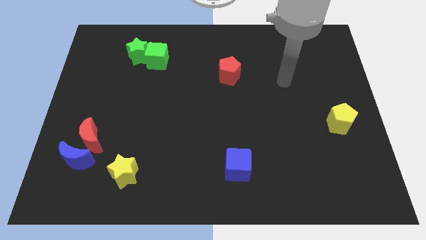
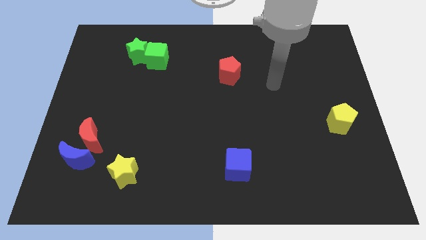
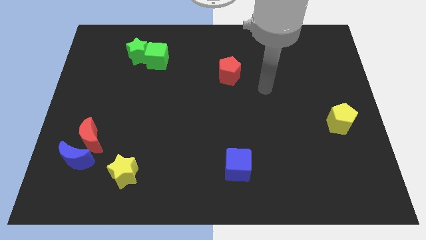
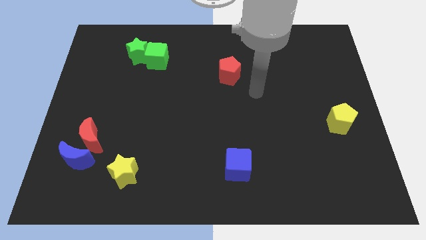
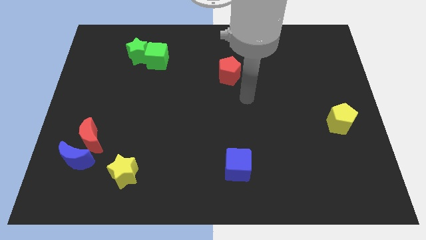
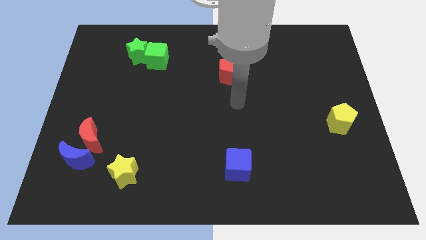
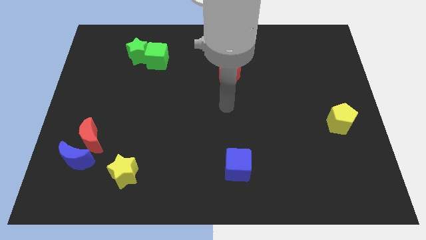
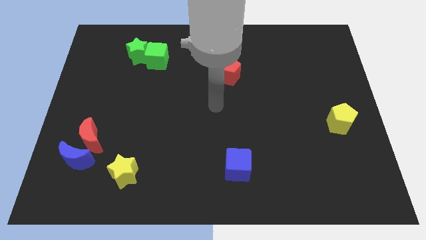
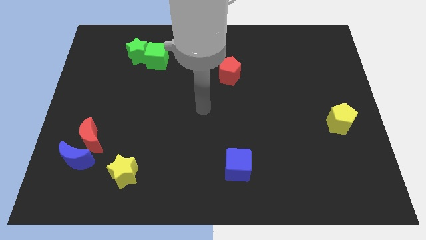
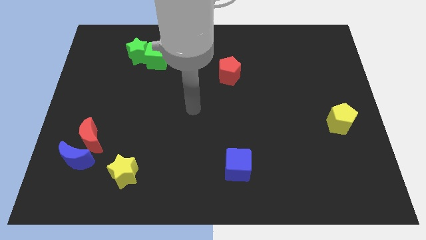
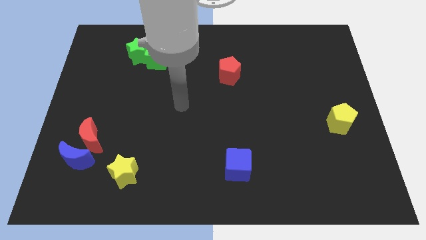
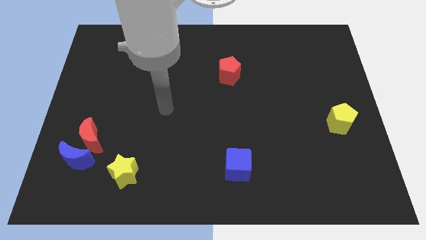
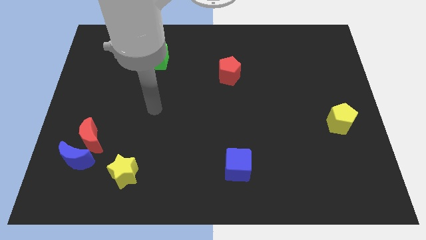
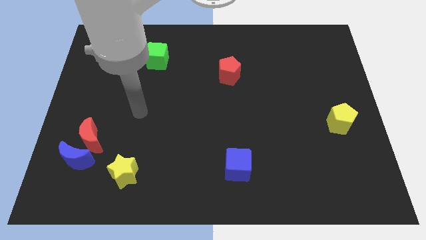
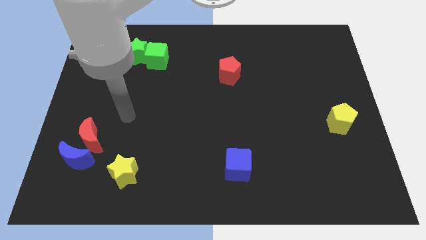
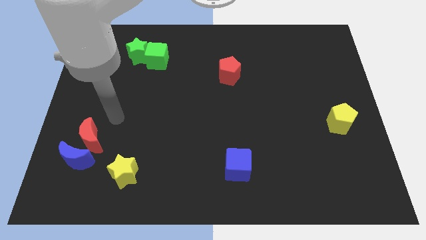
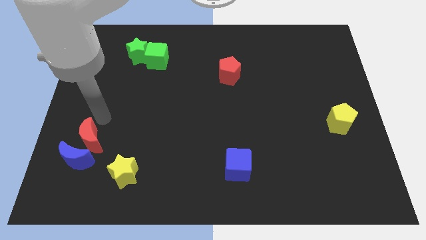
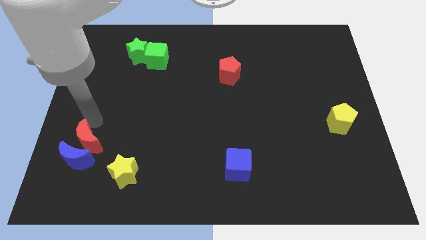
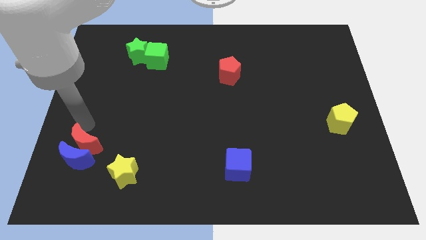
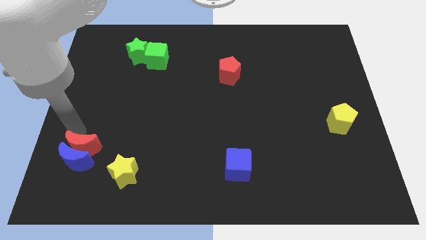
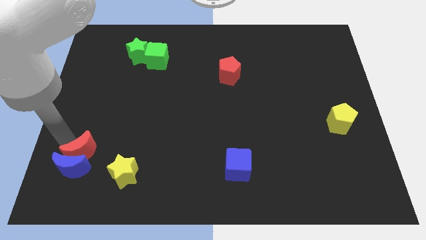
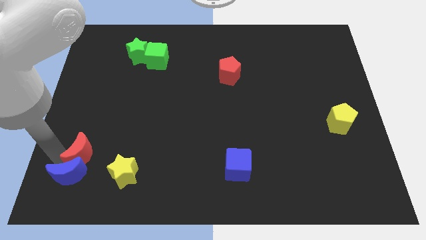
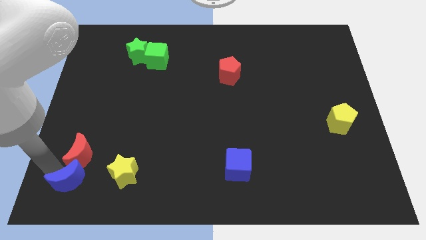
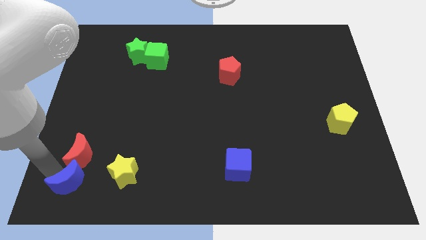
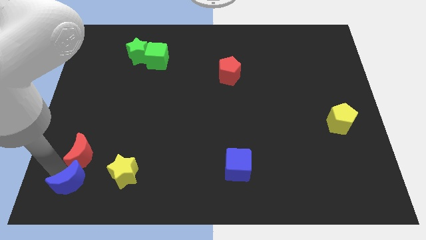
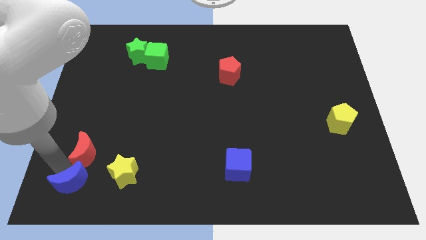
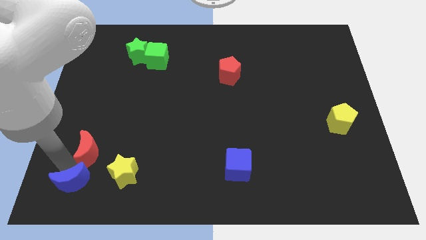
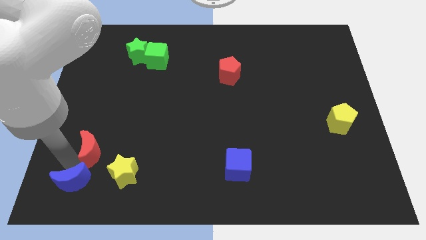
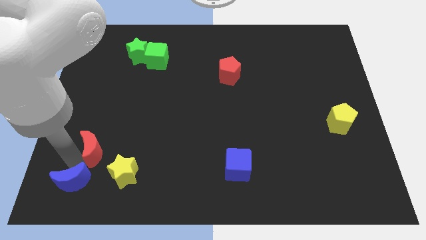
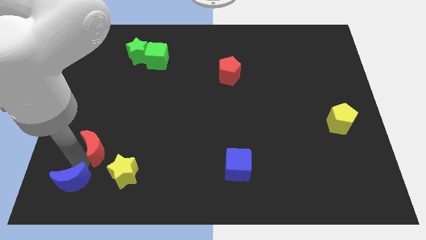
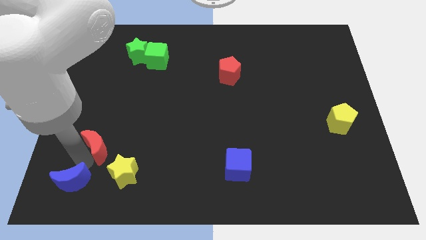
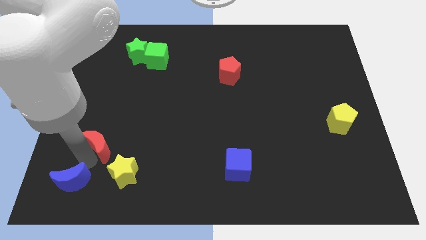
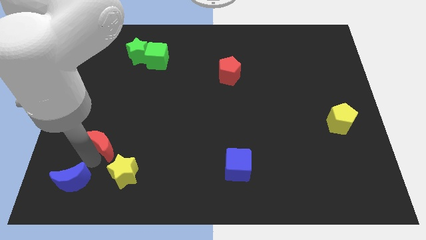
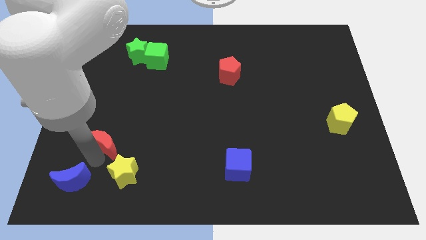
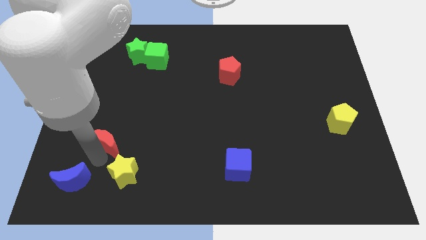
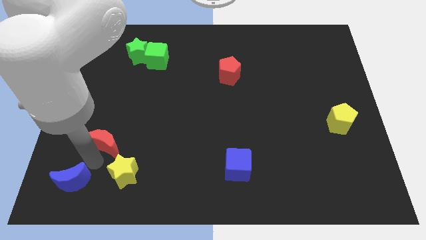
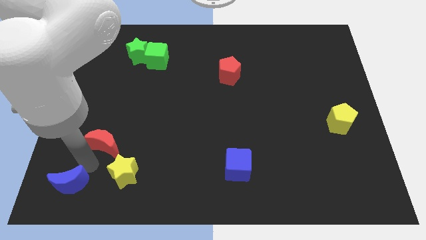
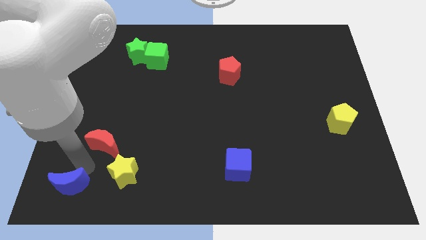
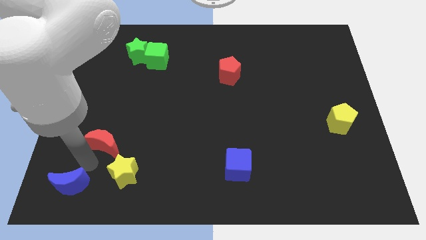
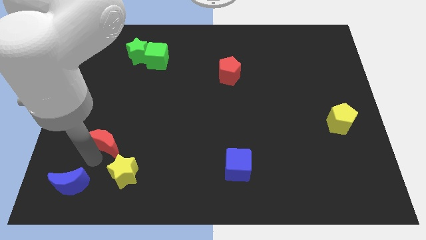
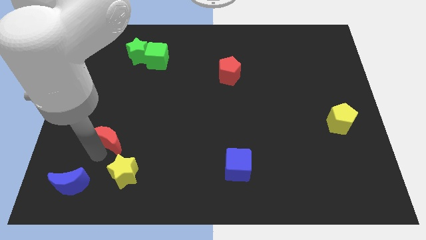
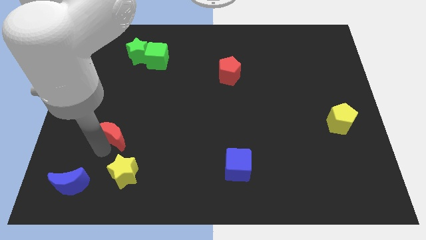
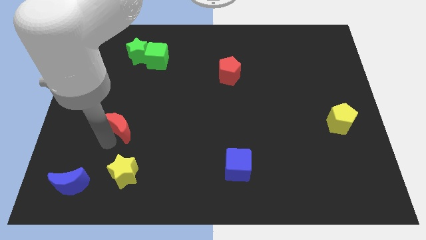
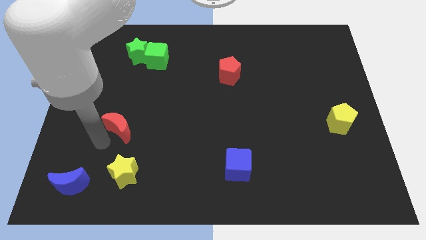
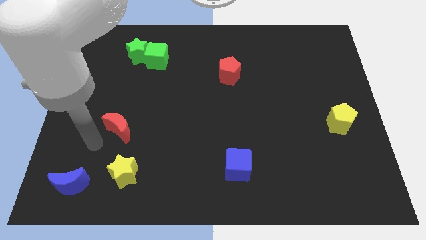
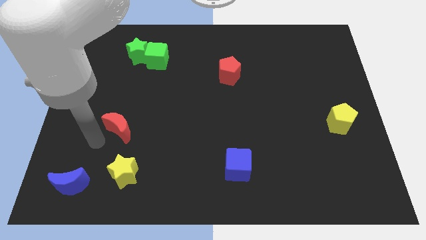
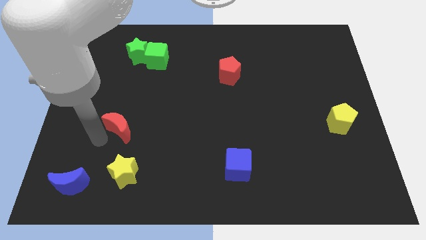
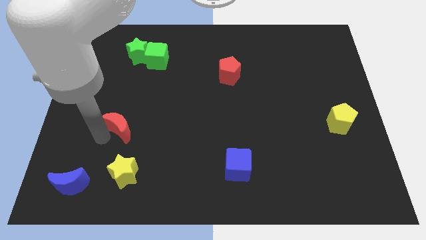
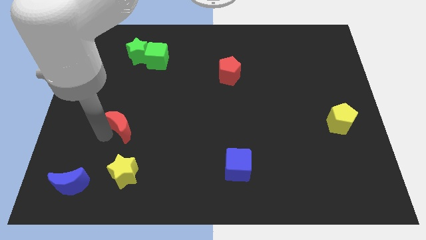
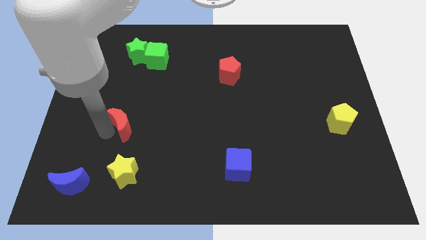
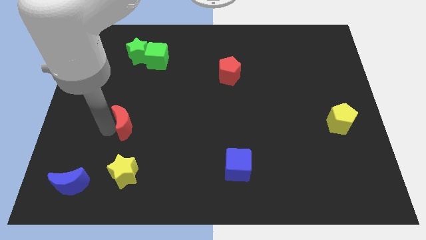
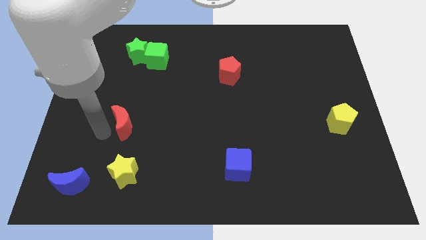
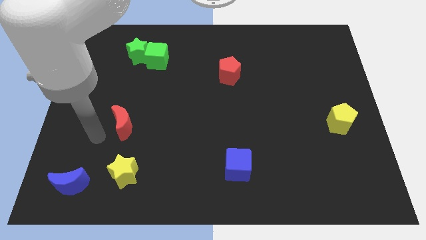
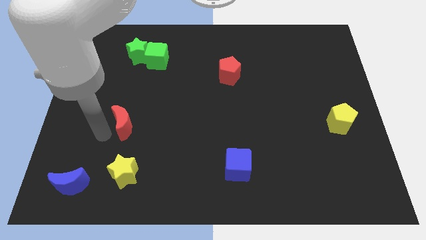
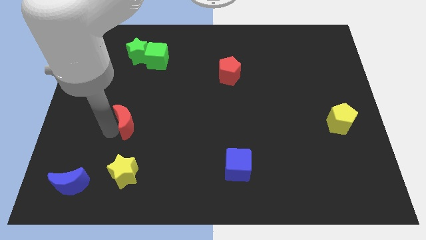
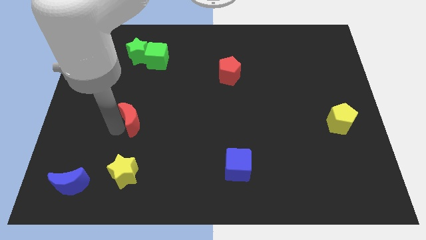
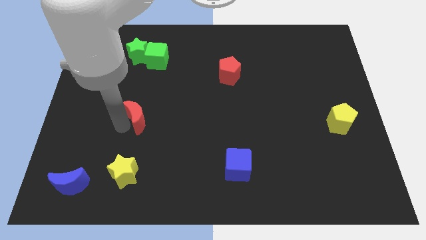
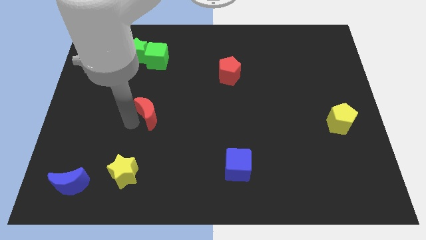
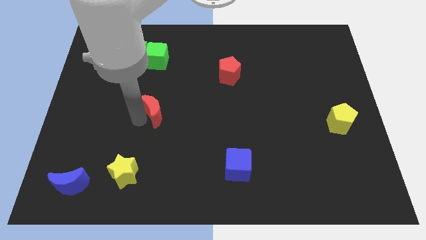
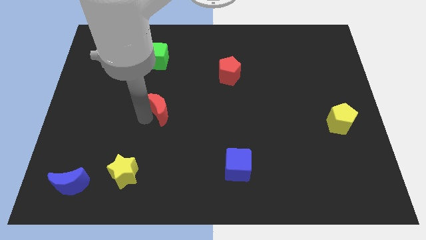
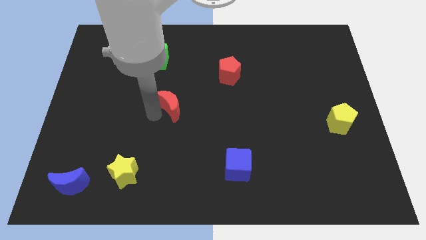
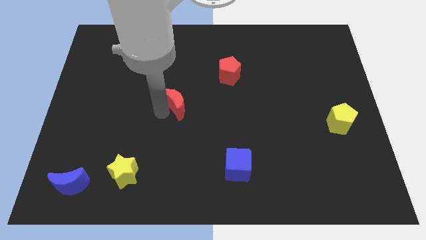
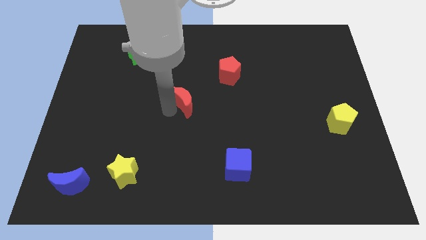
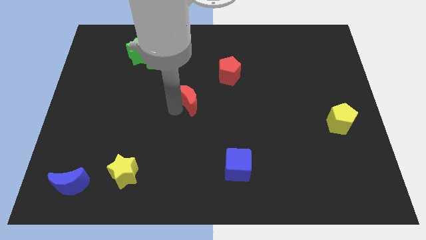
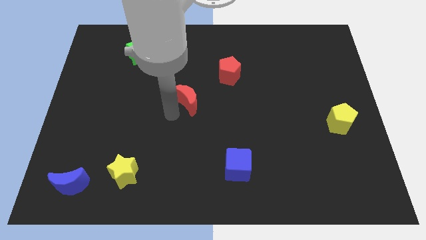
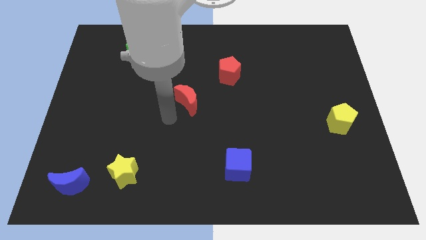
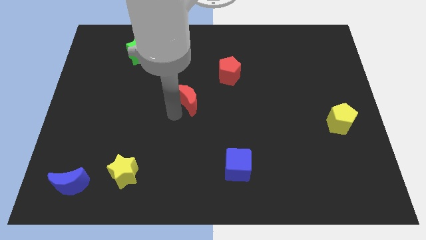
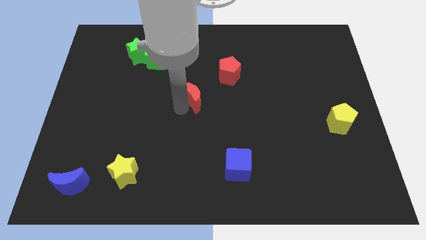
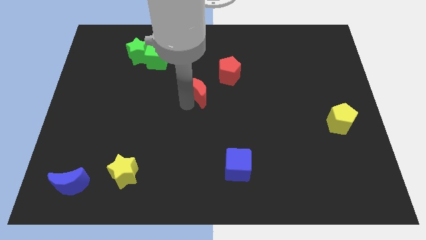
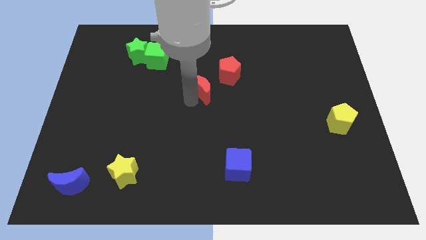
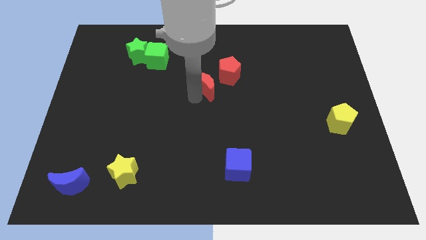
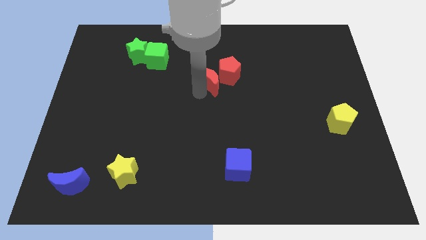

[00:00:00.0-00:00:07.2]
put the red moon to the red pentagon
